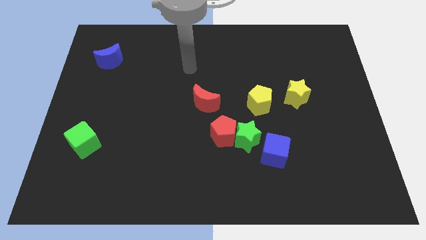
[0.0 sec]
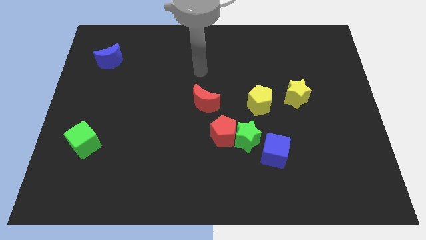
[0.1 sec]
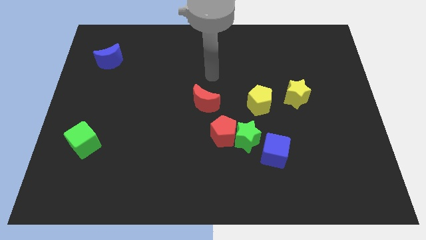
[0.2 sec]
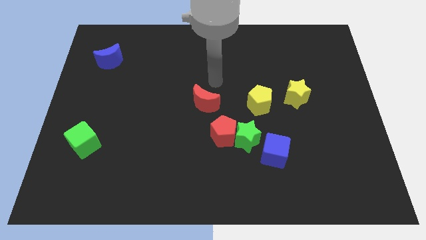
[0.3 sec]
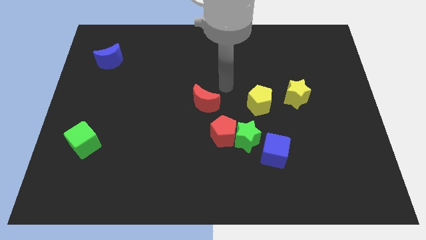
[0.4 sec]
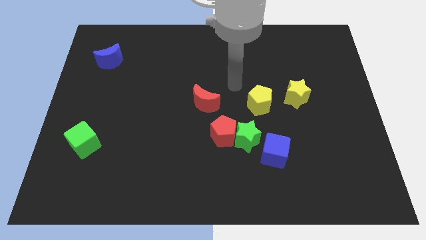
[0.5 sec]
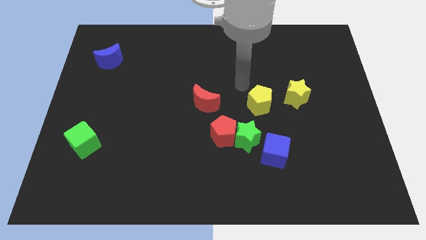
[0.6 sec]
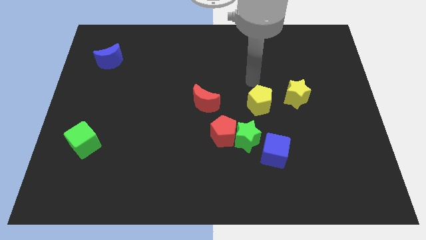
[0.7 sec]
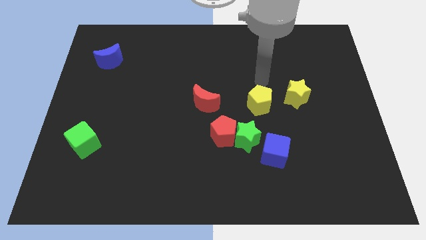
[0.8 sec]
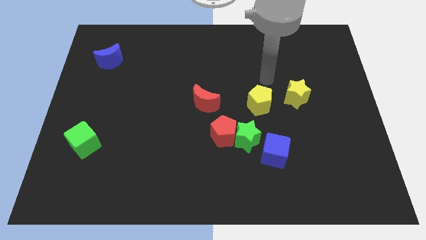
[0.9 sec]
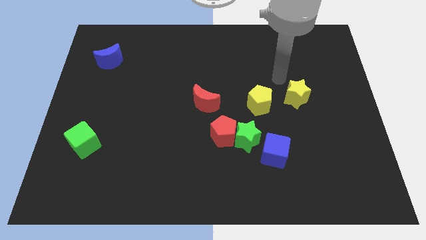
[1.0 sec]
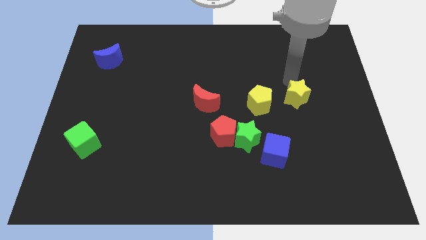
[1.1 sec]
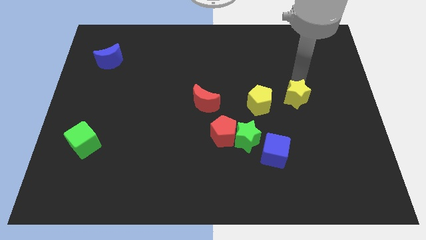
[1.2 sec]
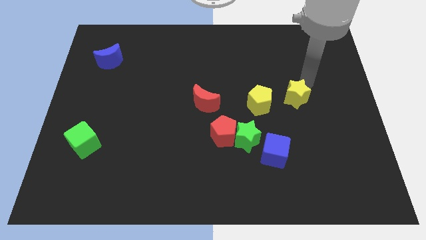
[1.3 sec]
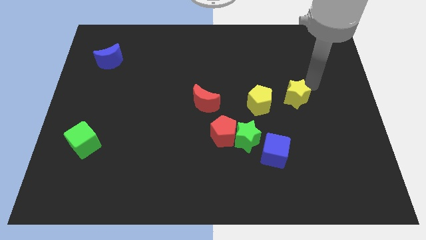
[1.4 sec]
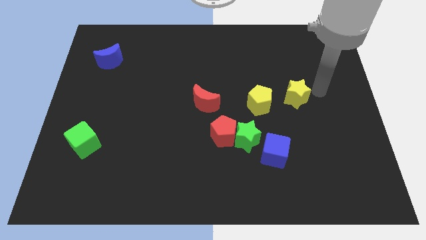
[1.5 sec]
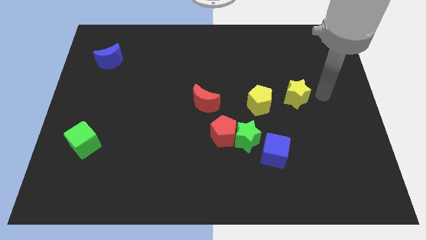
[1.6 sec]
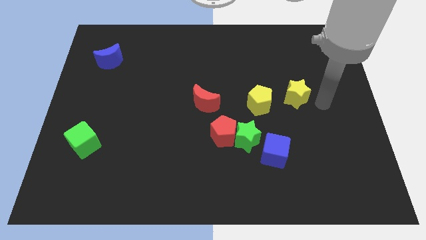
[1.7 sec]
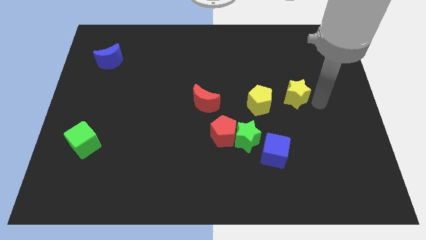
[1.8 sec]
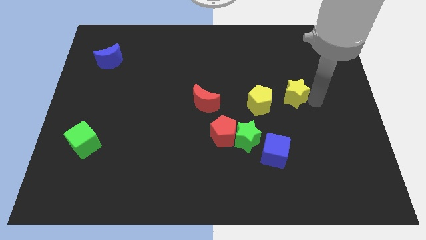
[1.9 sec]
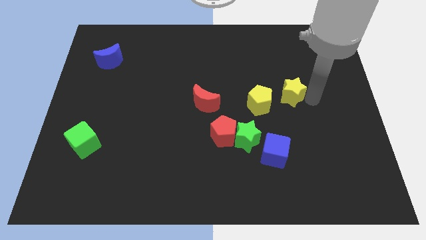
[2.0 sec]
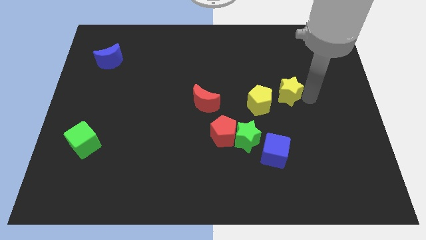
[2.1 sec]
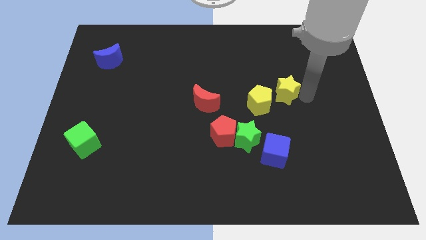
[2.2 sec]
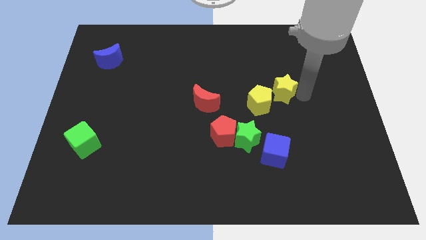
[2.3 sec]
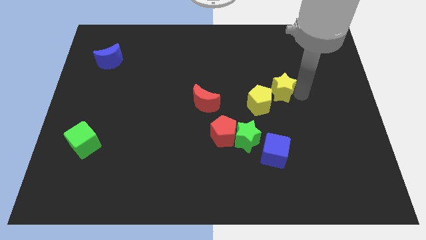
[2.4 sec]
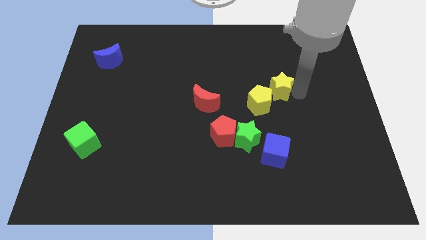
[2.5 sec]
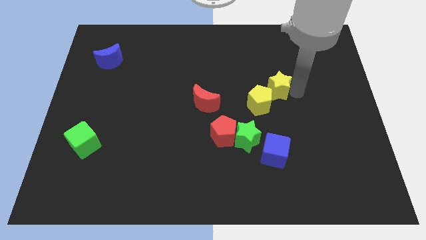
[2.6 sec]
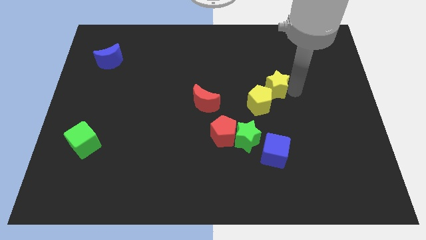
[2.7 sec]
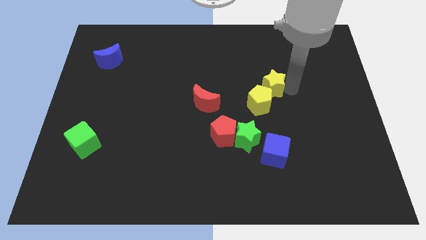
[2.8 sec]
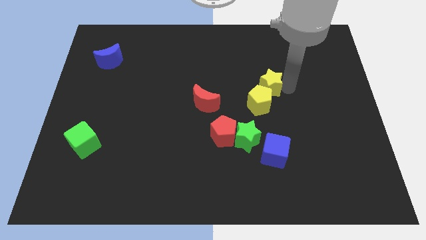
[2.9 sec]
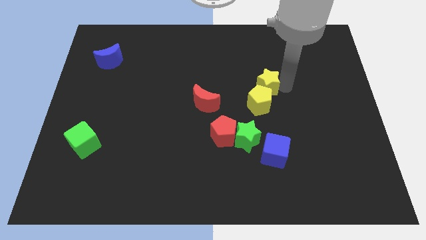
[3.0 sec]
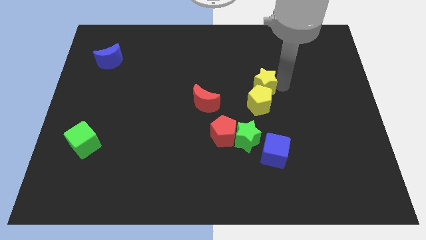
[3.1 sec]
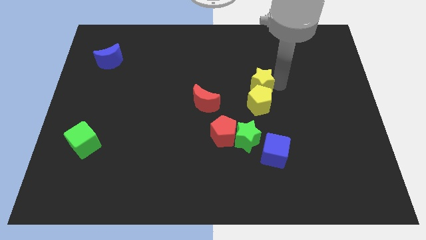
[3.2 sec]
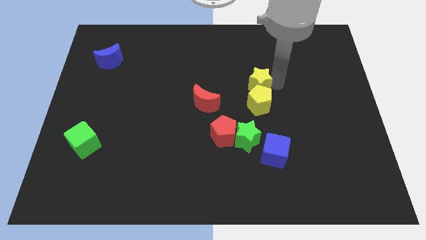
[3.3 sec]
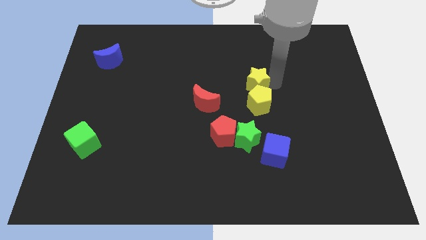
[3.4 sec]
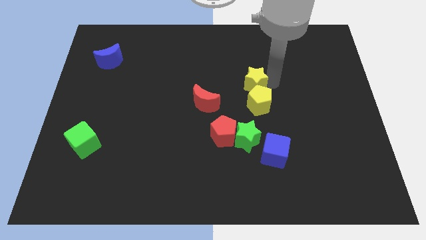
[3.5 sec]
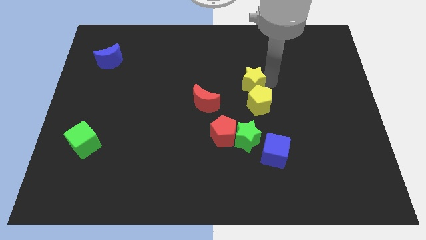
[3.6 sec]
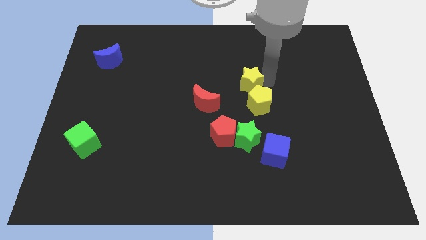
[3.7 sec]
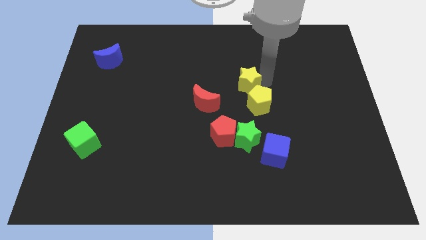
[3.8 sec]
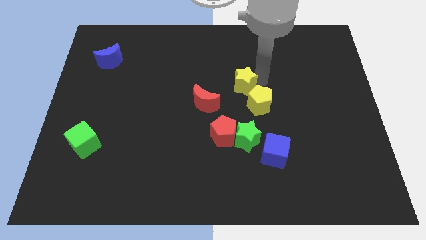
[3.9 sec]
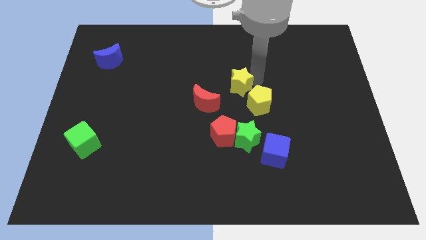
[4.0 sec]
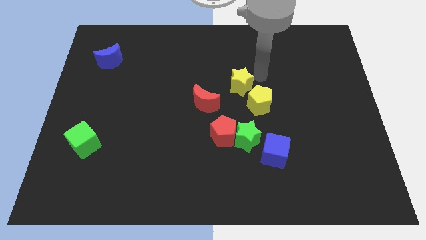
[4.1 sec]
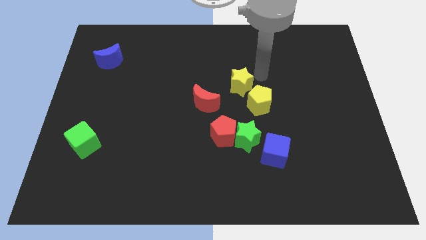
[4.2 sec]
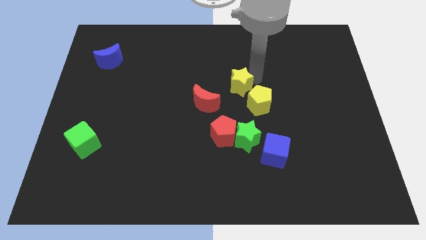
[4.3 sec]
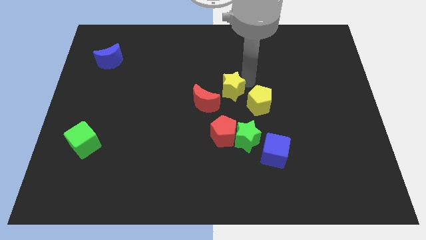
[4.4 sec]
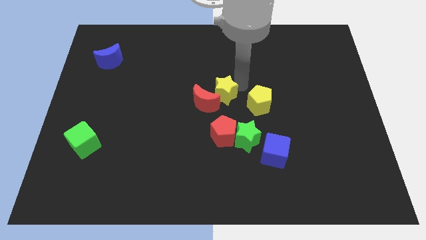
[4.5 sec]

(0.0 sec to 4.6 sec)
put the yellow star towards the red moon

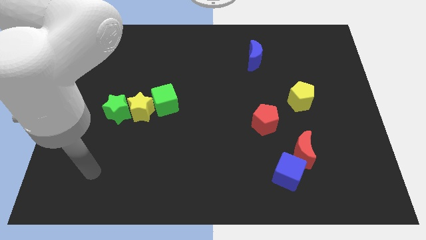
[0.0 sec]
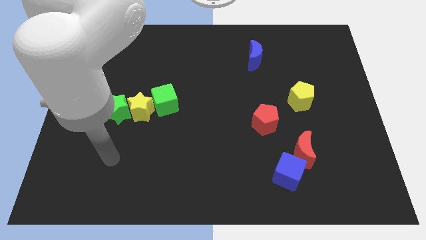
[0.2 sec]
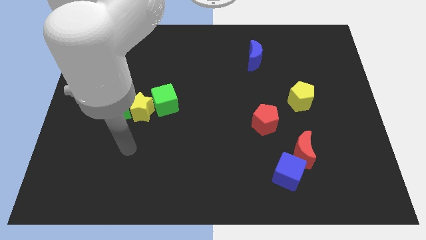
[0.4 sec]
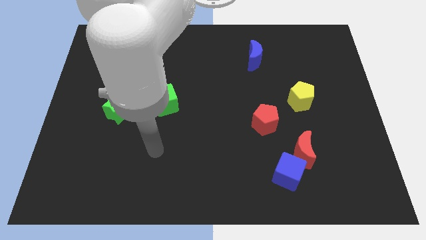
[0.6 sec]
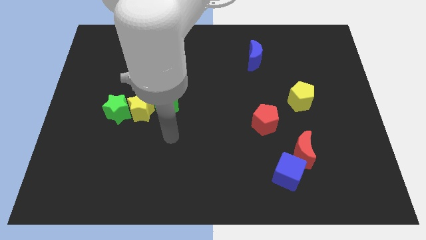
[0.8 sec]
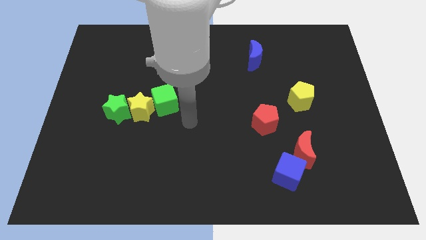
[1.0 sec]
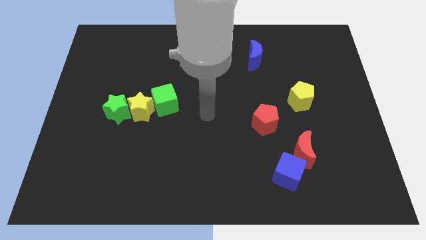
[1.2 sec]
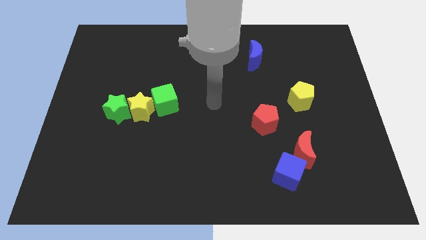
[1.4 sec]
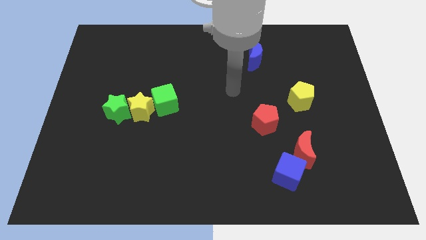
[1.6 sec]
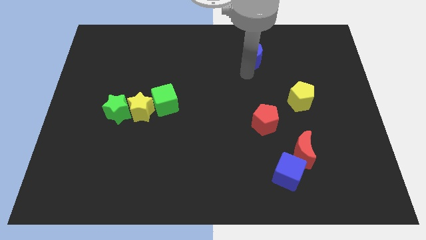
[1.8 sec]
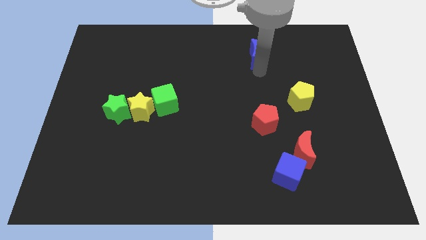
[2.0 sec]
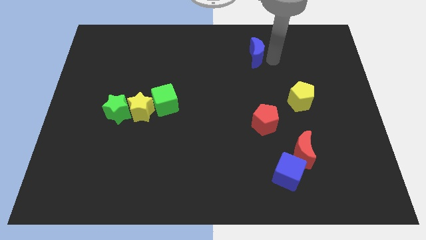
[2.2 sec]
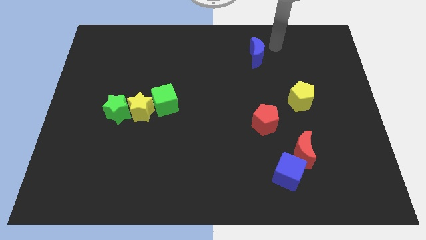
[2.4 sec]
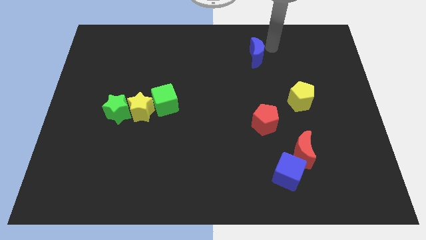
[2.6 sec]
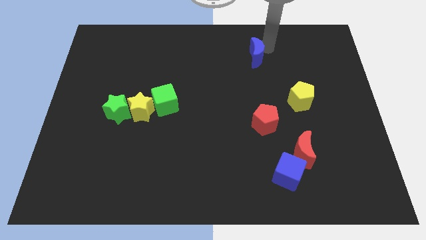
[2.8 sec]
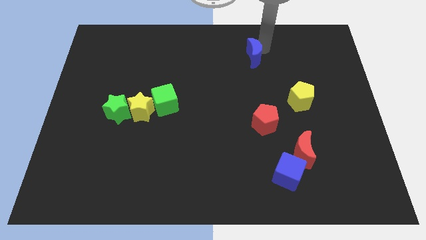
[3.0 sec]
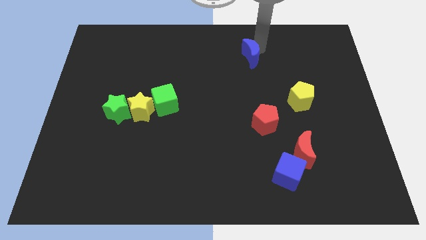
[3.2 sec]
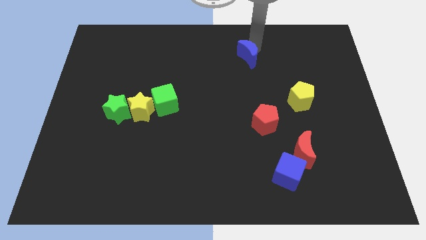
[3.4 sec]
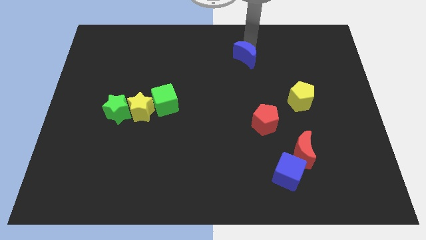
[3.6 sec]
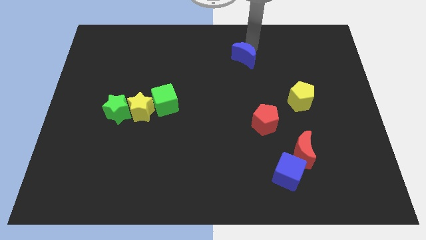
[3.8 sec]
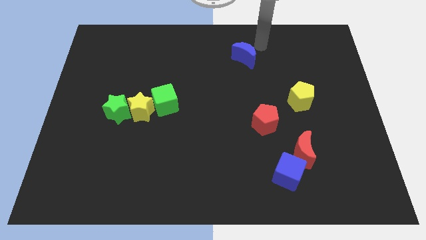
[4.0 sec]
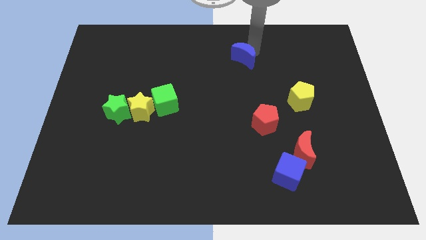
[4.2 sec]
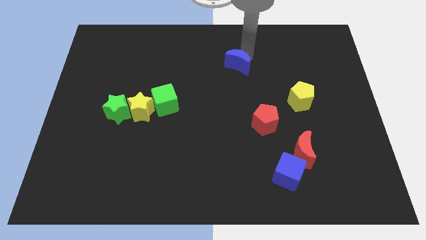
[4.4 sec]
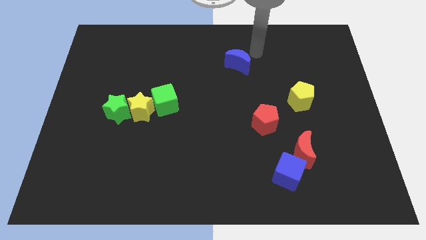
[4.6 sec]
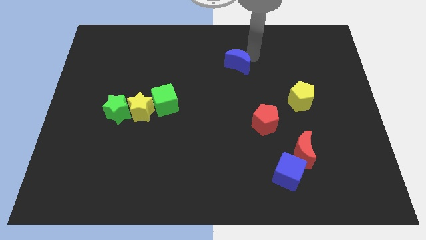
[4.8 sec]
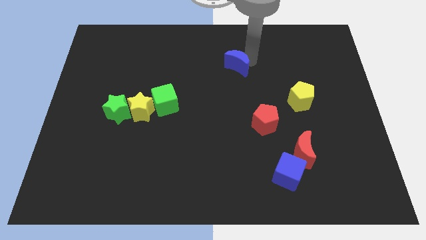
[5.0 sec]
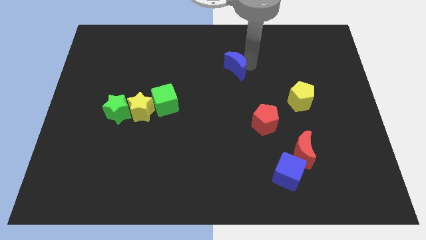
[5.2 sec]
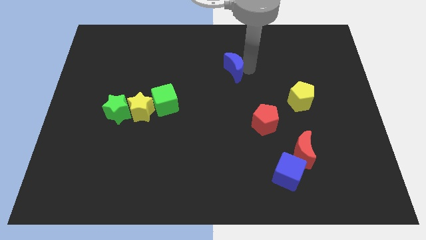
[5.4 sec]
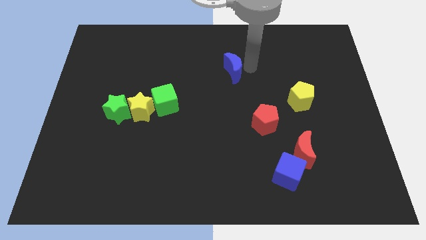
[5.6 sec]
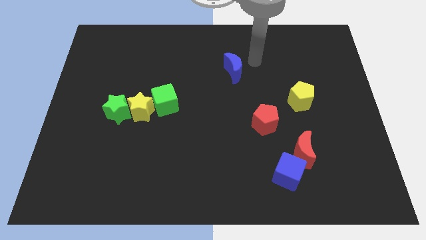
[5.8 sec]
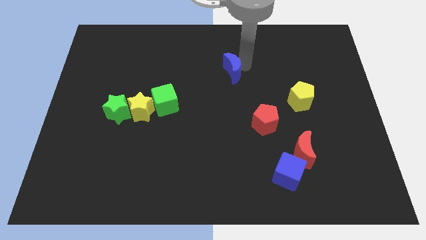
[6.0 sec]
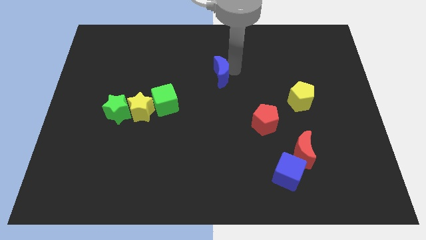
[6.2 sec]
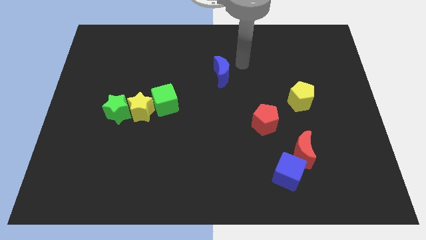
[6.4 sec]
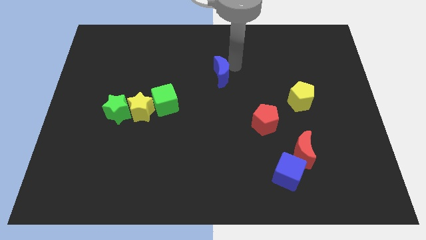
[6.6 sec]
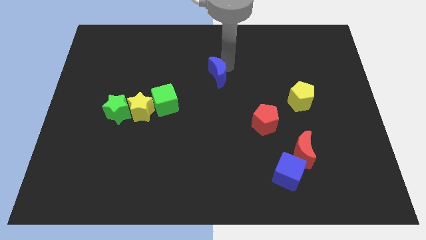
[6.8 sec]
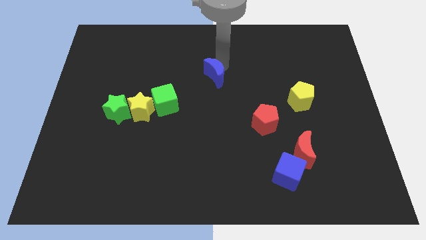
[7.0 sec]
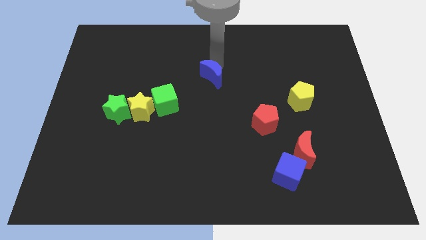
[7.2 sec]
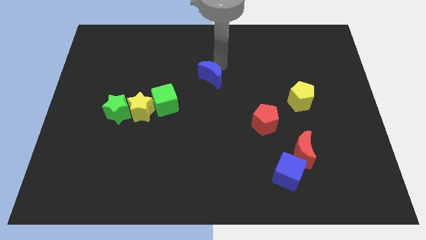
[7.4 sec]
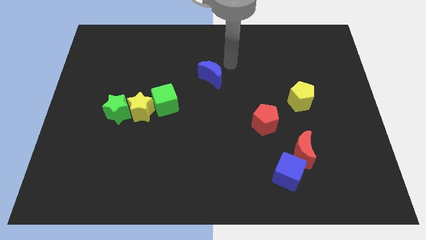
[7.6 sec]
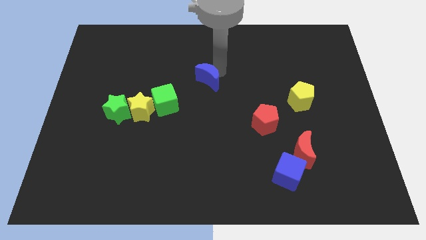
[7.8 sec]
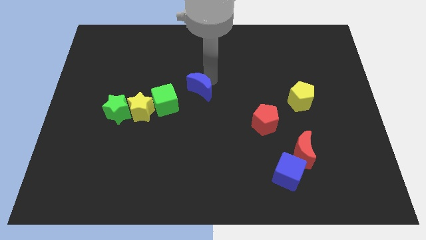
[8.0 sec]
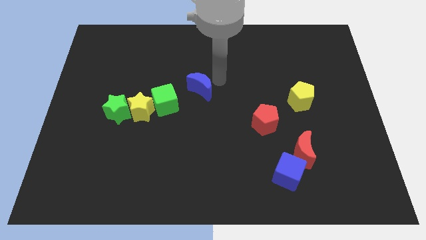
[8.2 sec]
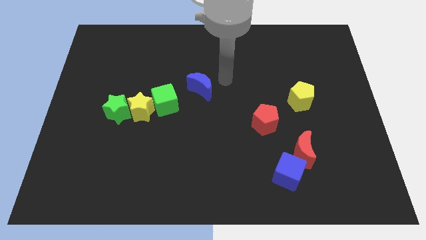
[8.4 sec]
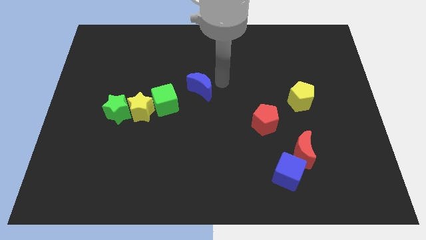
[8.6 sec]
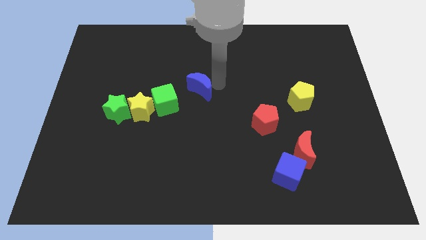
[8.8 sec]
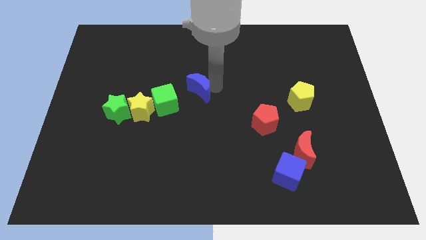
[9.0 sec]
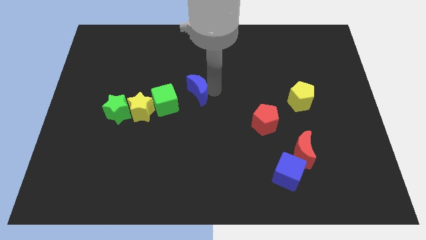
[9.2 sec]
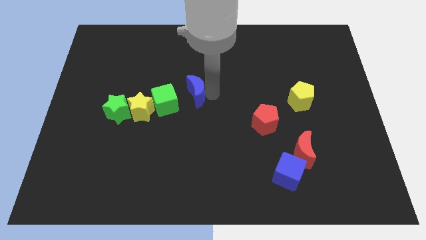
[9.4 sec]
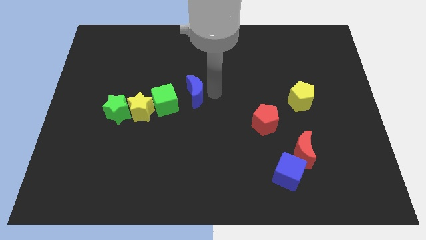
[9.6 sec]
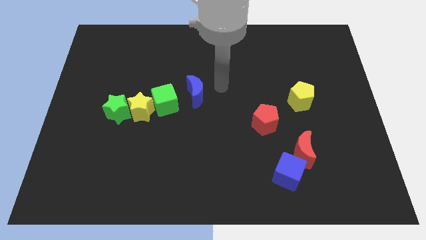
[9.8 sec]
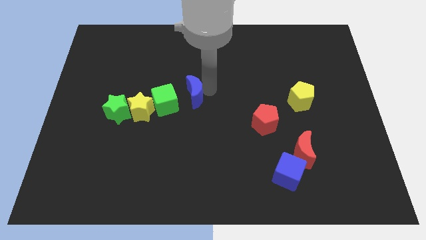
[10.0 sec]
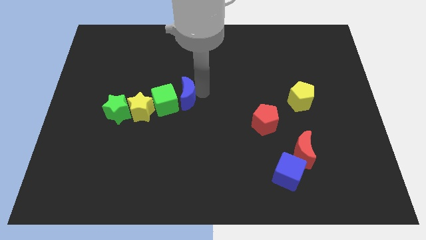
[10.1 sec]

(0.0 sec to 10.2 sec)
push the blue moon next to the green cube
